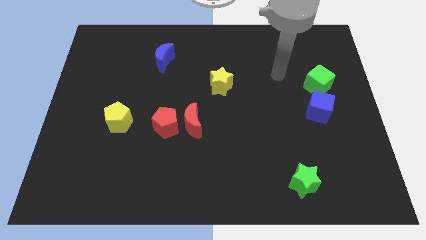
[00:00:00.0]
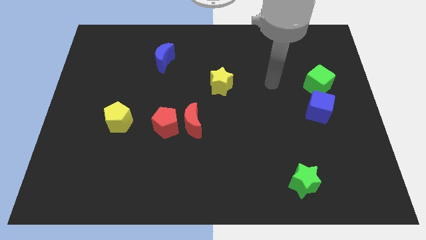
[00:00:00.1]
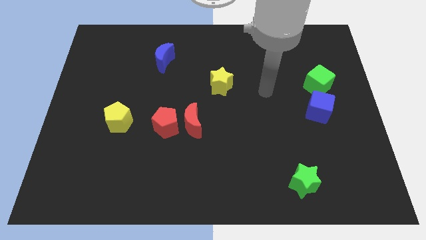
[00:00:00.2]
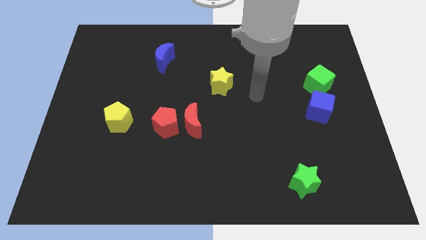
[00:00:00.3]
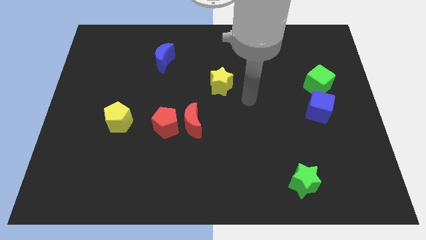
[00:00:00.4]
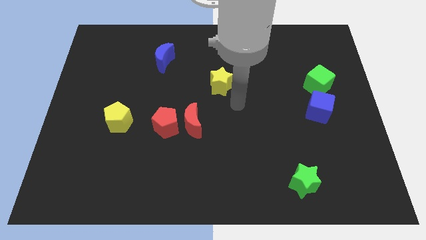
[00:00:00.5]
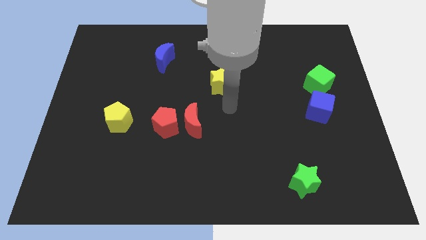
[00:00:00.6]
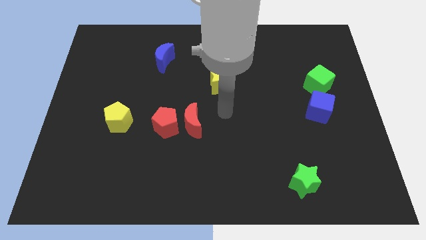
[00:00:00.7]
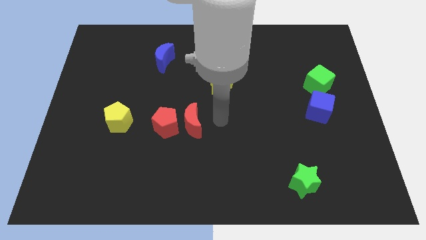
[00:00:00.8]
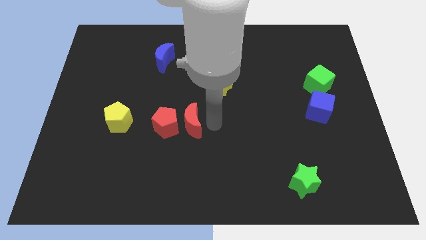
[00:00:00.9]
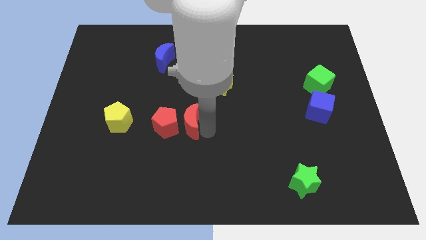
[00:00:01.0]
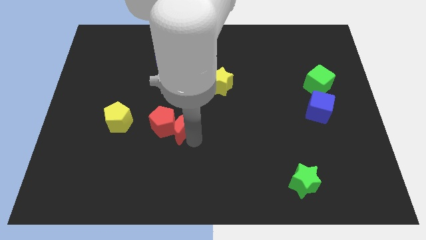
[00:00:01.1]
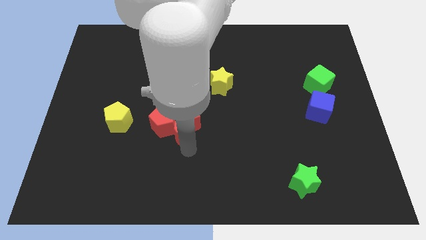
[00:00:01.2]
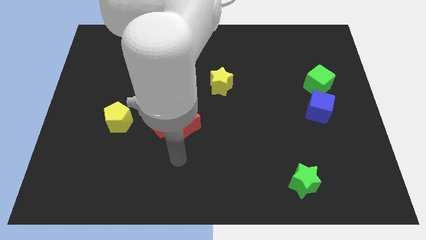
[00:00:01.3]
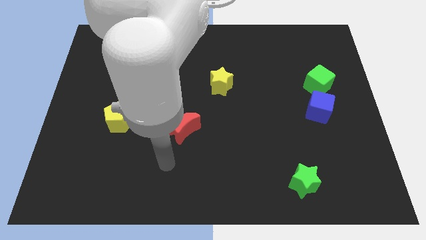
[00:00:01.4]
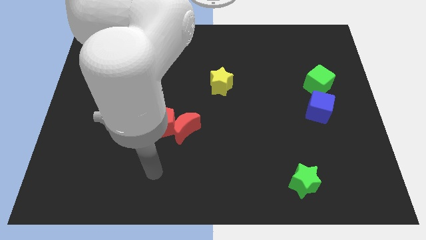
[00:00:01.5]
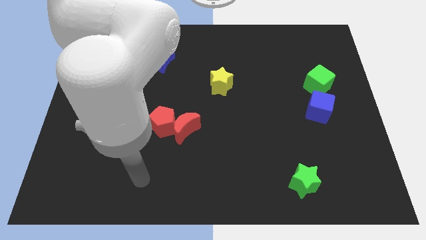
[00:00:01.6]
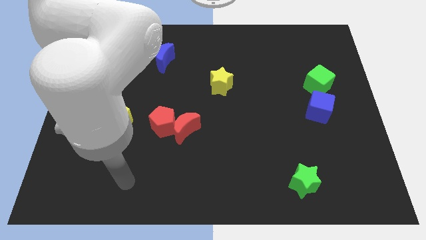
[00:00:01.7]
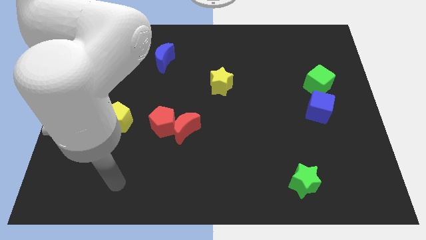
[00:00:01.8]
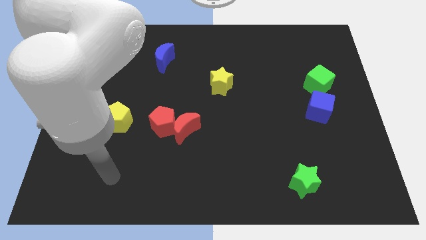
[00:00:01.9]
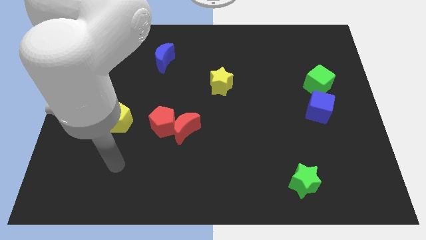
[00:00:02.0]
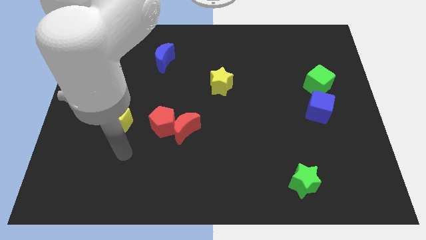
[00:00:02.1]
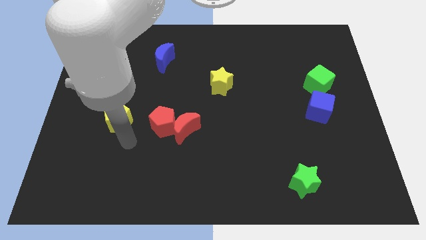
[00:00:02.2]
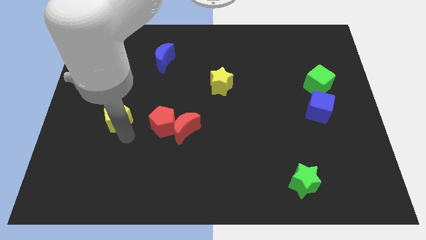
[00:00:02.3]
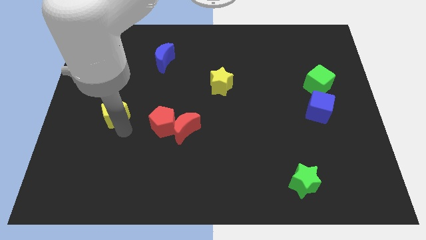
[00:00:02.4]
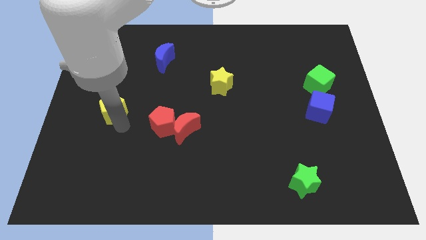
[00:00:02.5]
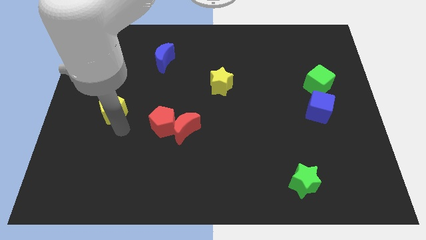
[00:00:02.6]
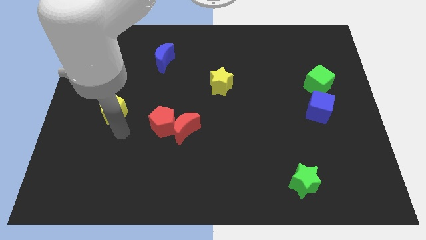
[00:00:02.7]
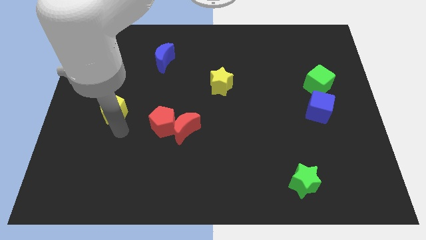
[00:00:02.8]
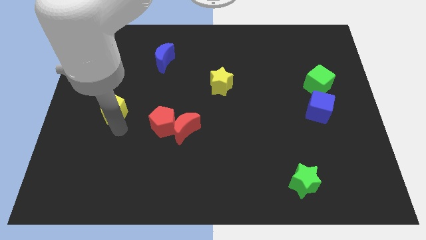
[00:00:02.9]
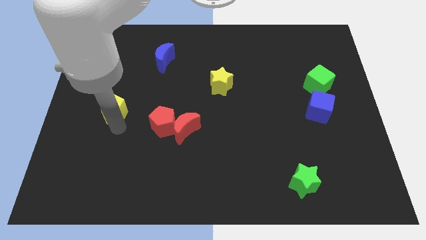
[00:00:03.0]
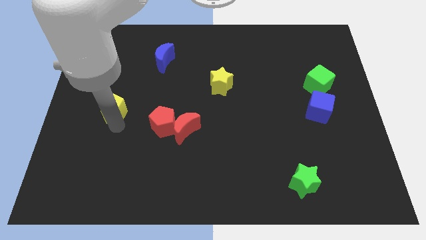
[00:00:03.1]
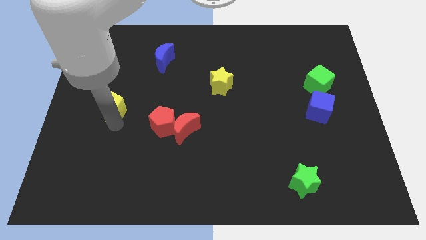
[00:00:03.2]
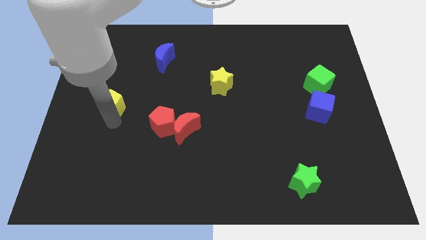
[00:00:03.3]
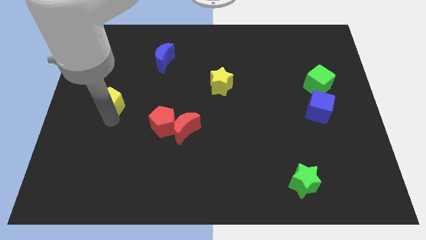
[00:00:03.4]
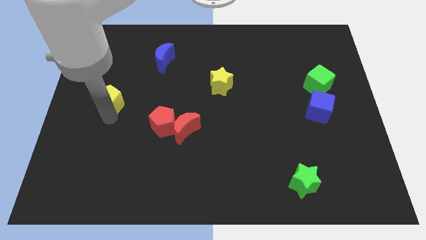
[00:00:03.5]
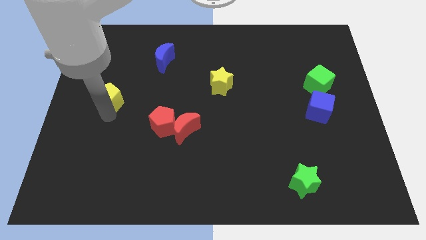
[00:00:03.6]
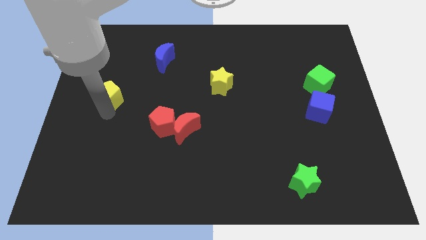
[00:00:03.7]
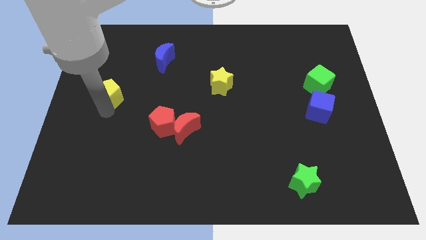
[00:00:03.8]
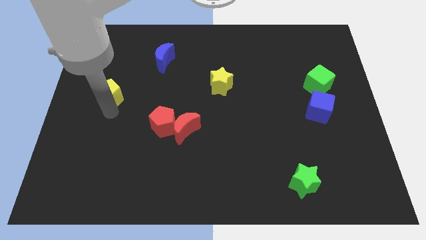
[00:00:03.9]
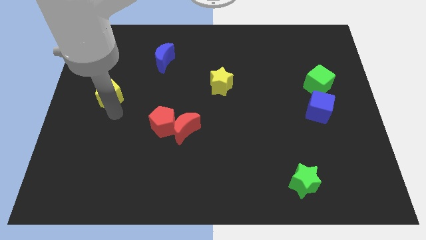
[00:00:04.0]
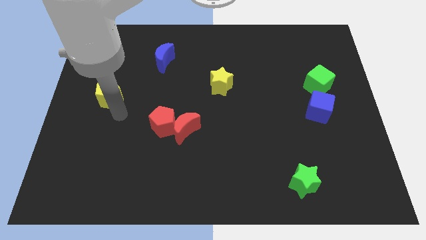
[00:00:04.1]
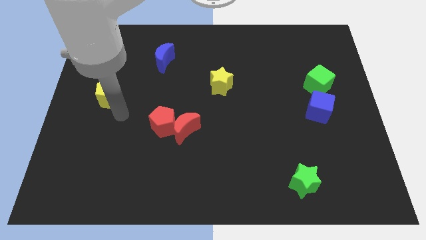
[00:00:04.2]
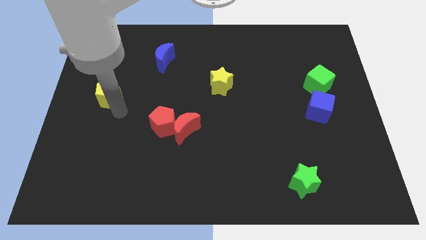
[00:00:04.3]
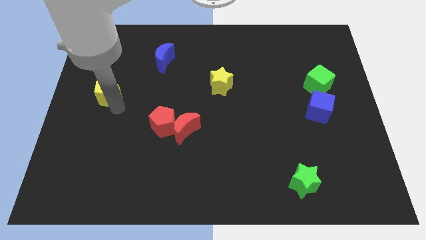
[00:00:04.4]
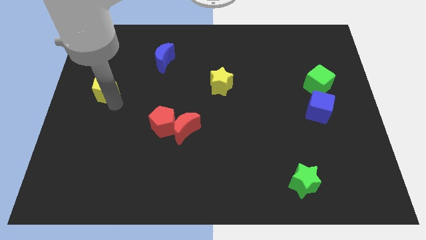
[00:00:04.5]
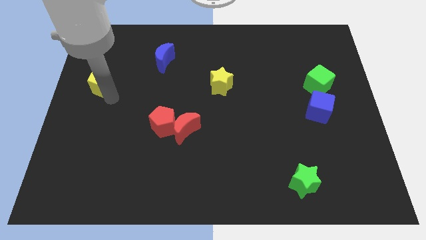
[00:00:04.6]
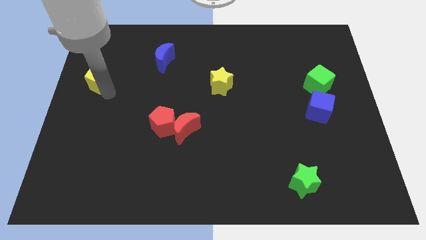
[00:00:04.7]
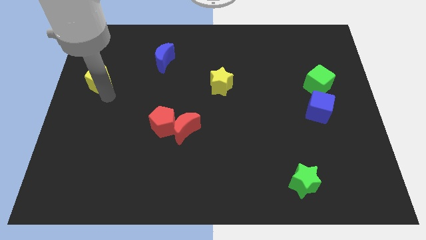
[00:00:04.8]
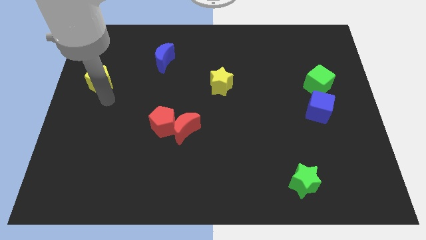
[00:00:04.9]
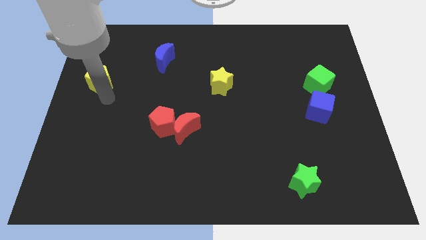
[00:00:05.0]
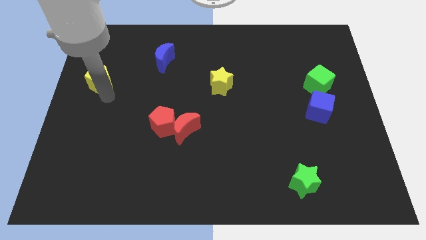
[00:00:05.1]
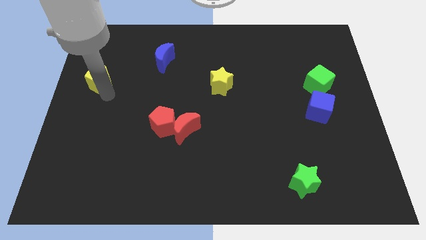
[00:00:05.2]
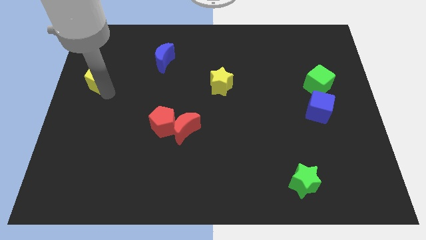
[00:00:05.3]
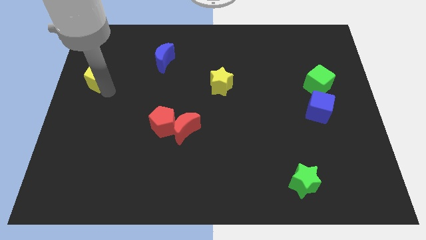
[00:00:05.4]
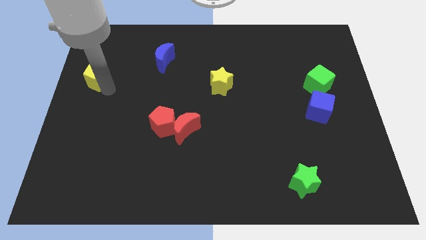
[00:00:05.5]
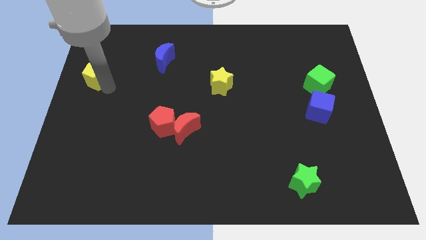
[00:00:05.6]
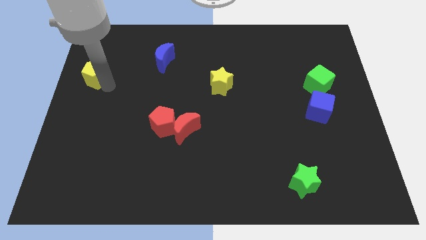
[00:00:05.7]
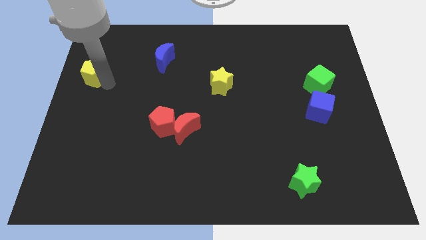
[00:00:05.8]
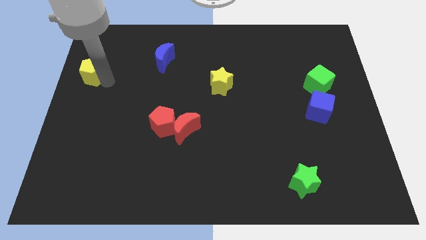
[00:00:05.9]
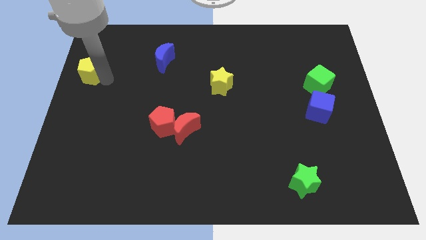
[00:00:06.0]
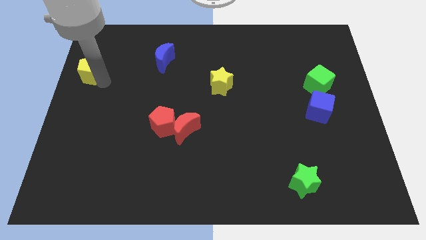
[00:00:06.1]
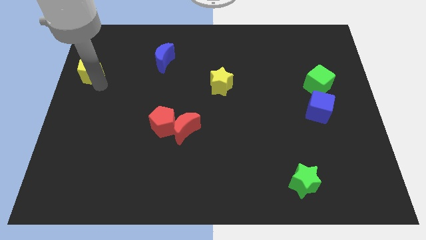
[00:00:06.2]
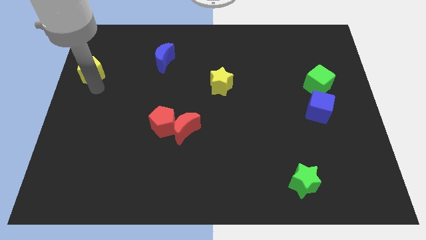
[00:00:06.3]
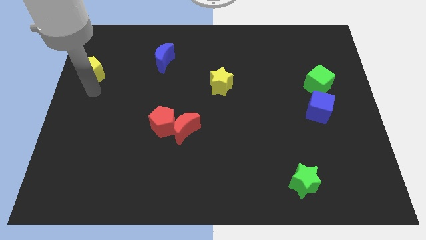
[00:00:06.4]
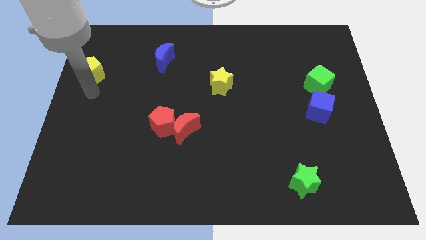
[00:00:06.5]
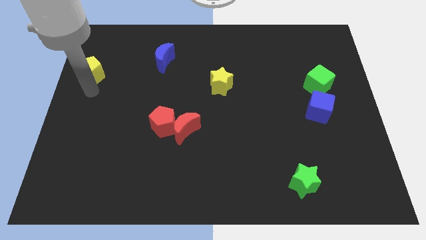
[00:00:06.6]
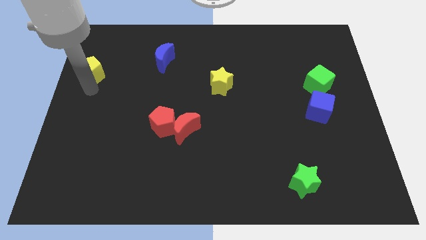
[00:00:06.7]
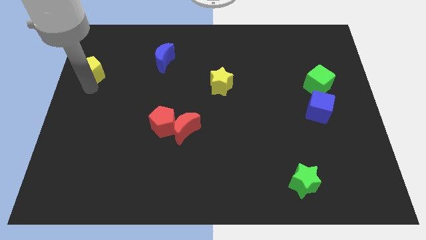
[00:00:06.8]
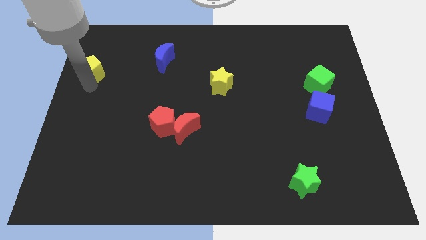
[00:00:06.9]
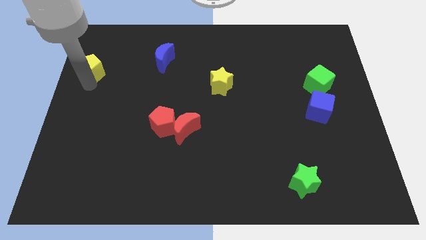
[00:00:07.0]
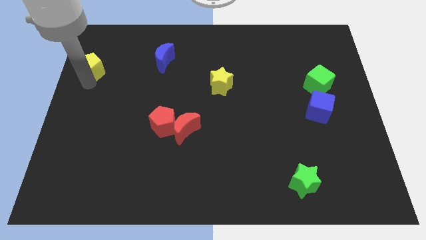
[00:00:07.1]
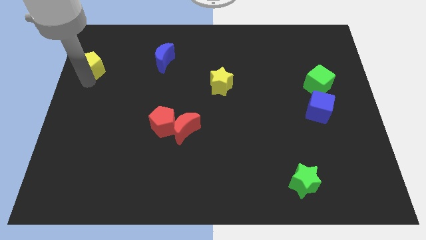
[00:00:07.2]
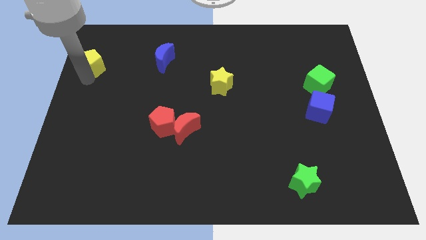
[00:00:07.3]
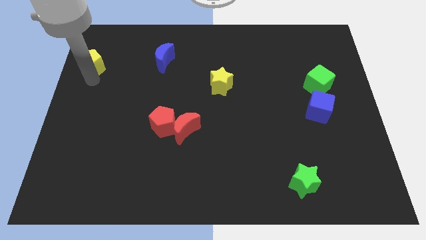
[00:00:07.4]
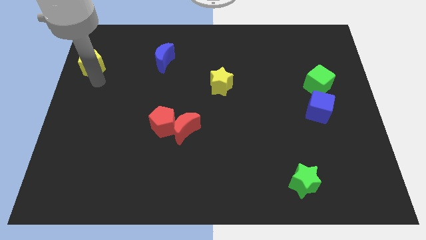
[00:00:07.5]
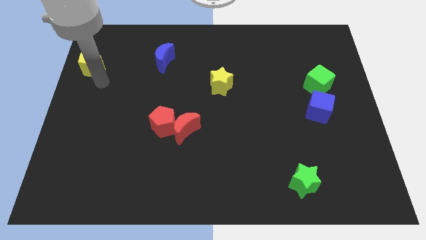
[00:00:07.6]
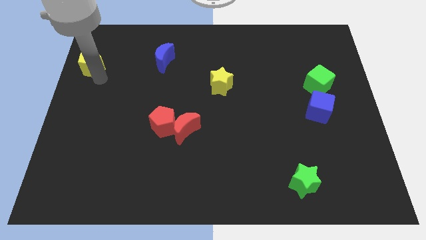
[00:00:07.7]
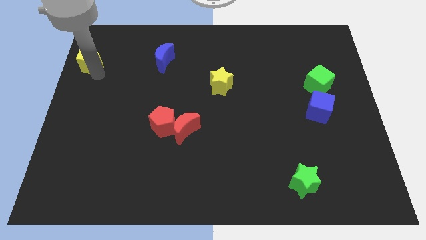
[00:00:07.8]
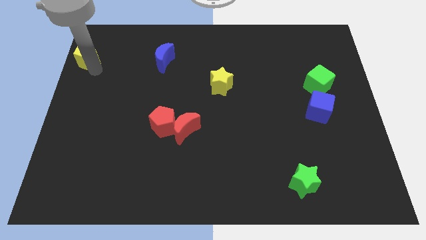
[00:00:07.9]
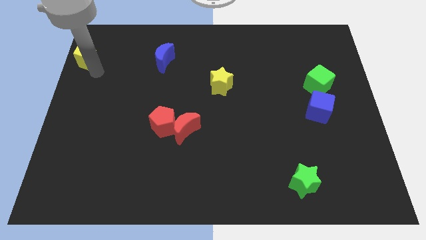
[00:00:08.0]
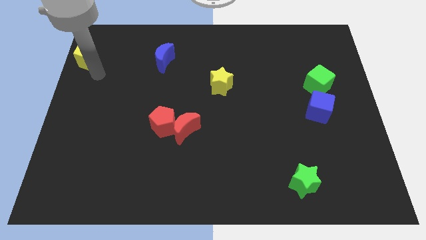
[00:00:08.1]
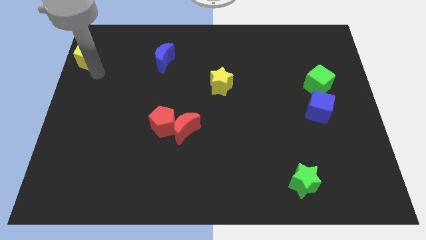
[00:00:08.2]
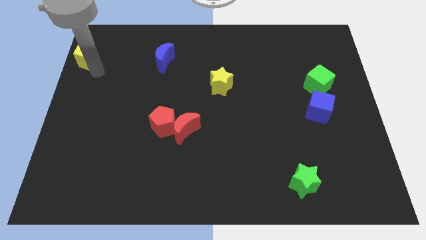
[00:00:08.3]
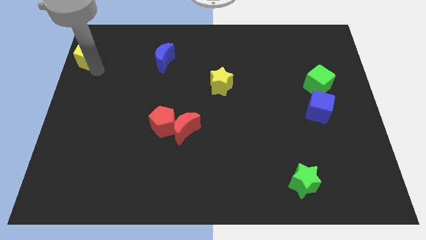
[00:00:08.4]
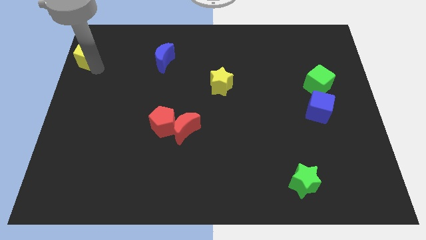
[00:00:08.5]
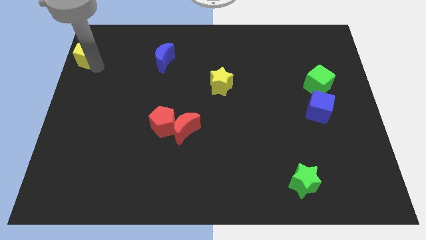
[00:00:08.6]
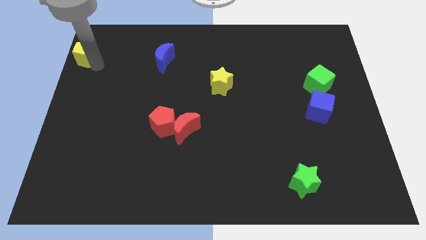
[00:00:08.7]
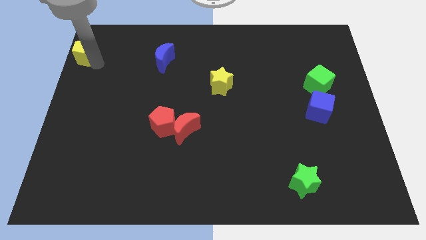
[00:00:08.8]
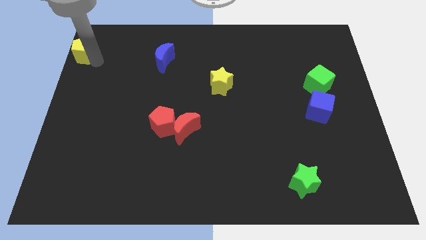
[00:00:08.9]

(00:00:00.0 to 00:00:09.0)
put the yellow pentagon to the top left corner
